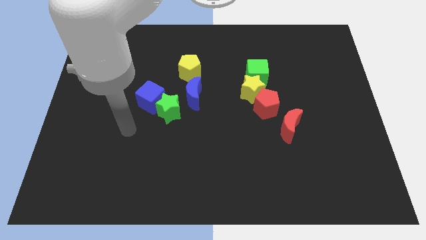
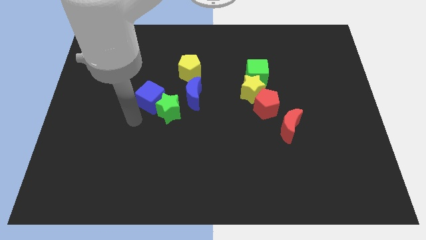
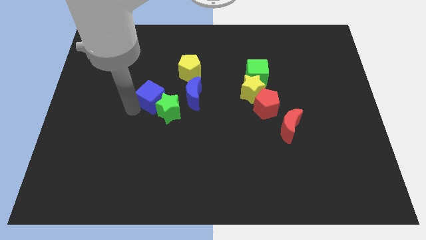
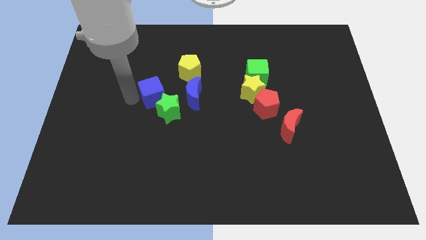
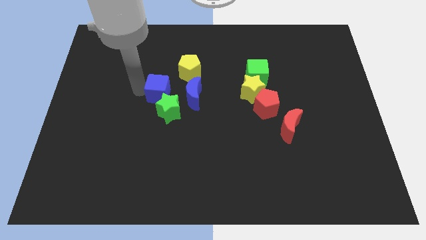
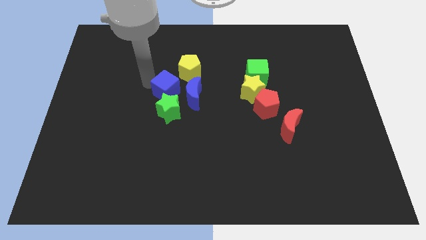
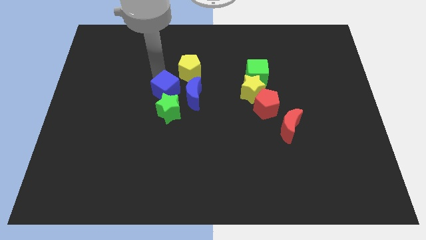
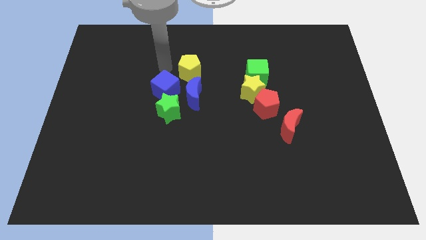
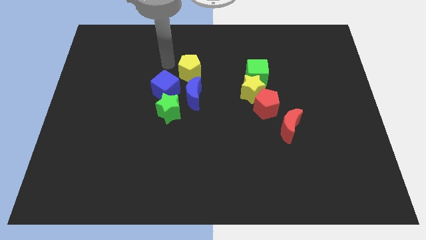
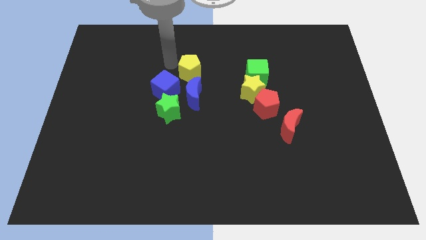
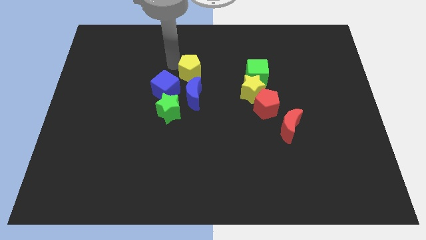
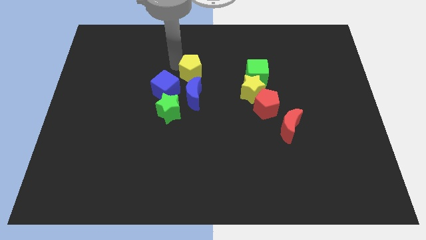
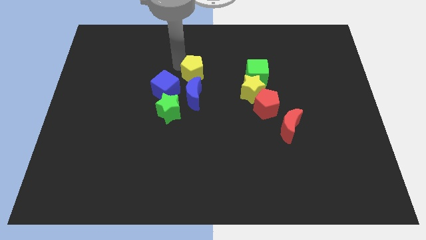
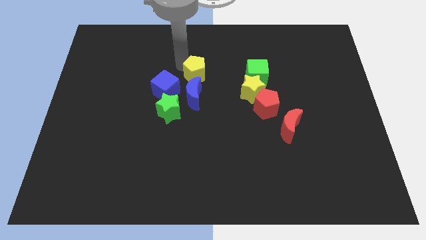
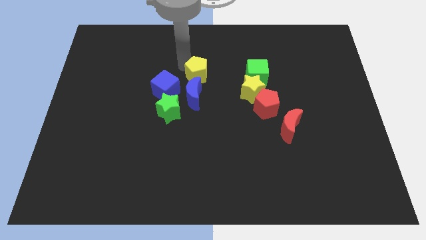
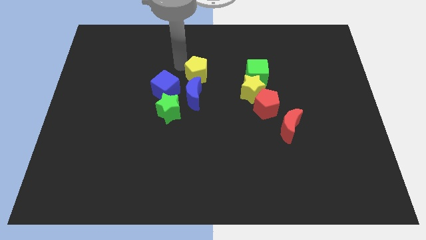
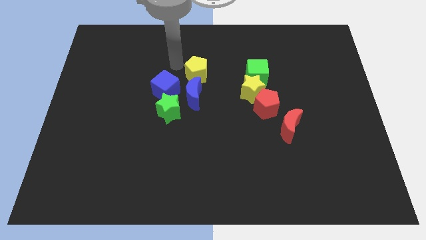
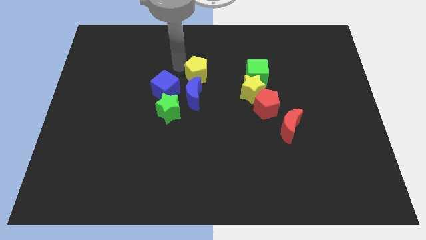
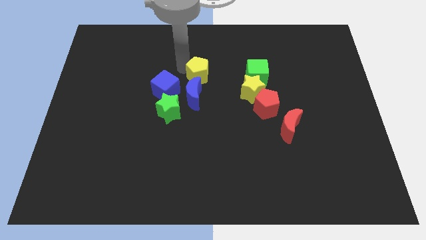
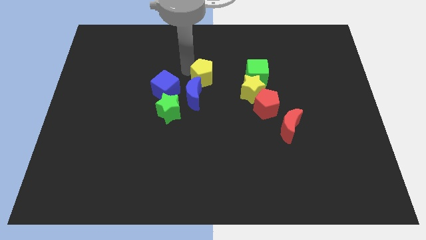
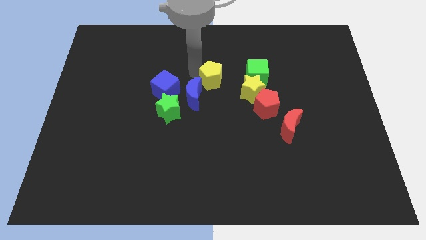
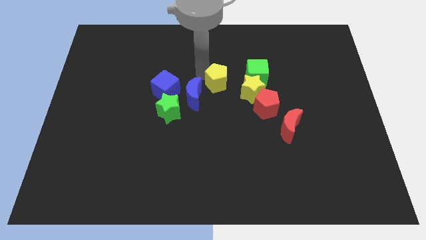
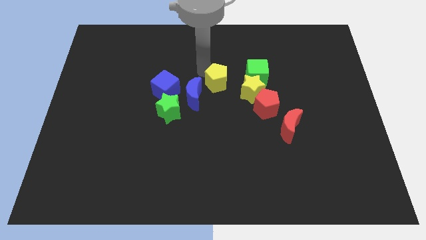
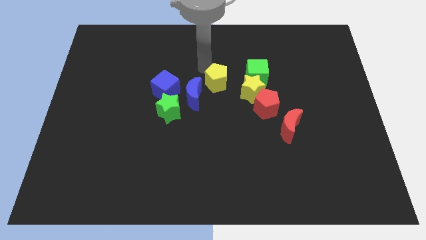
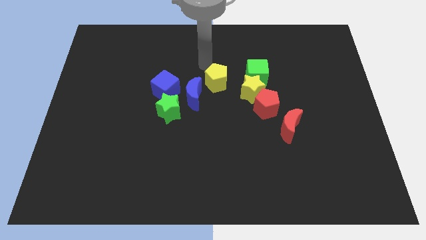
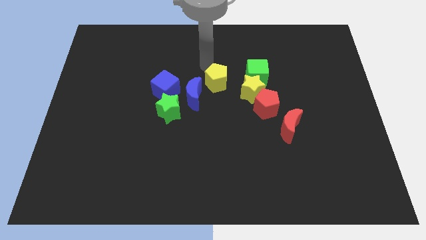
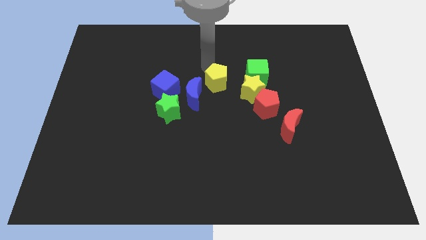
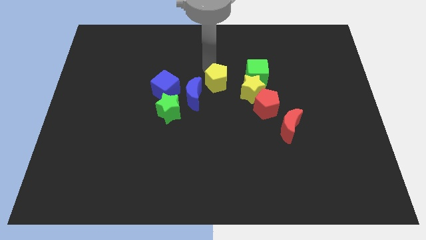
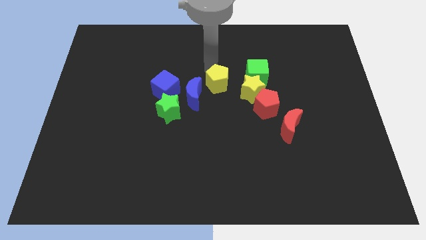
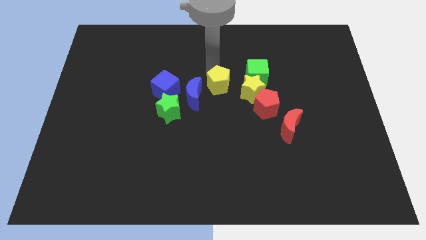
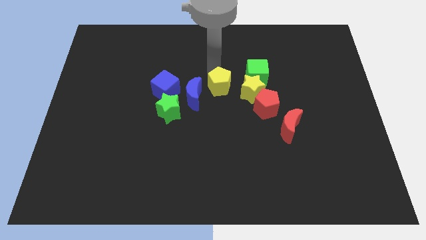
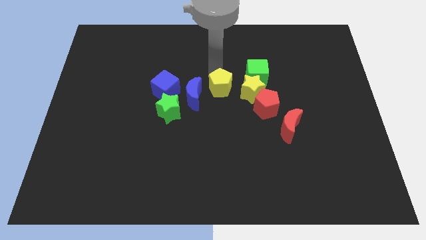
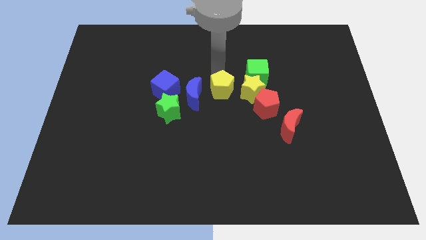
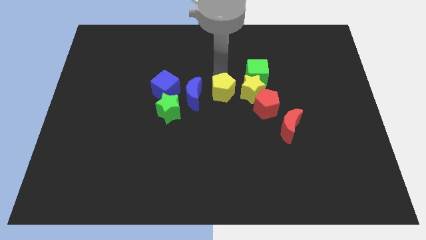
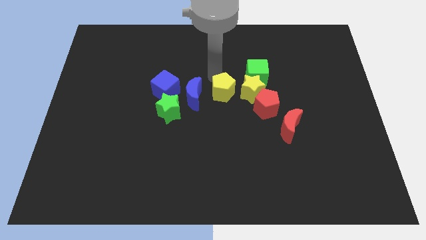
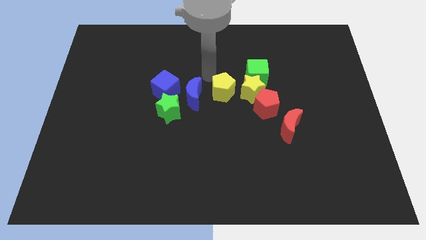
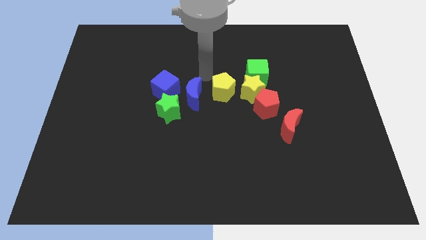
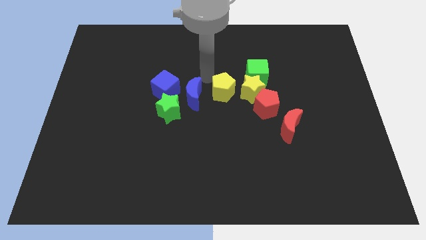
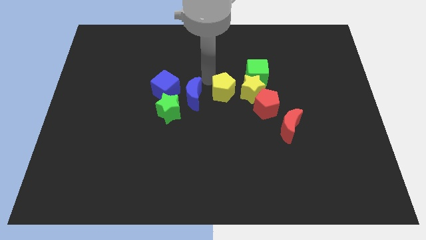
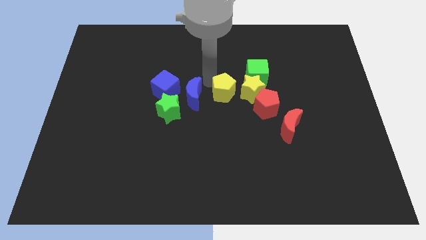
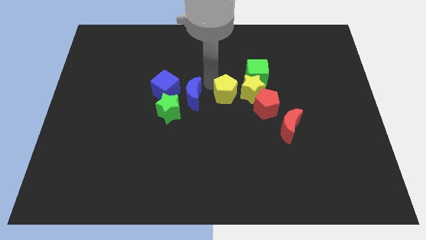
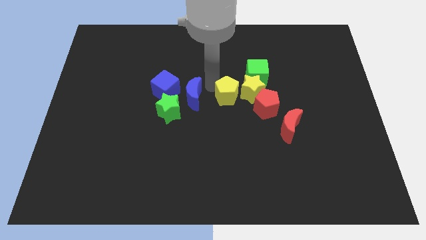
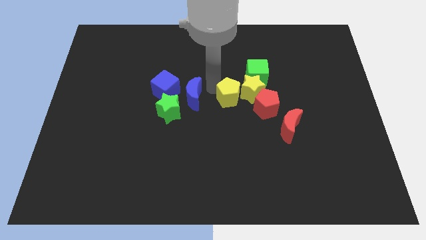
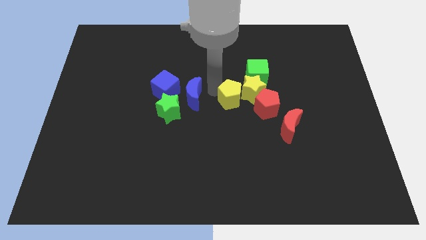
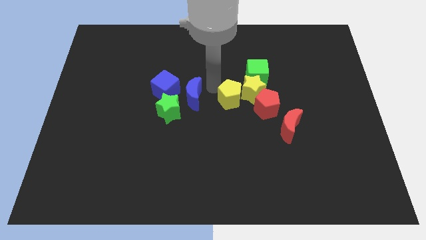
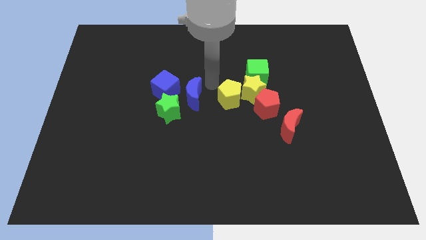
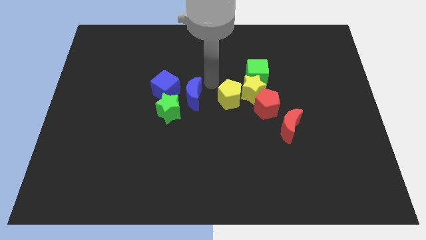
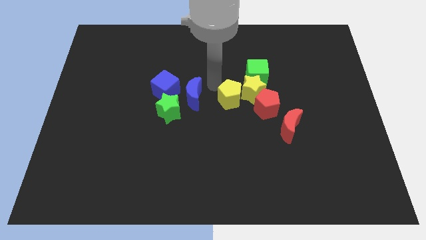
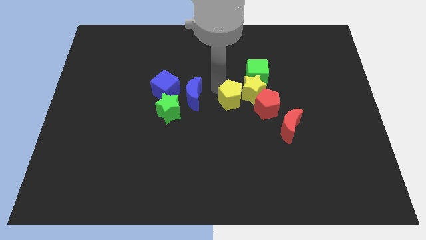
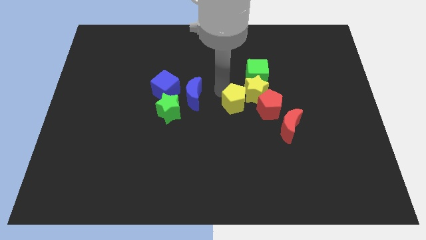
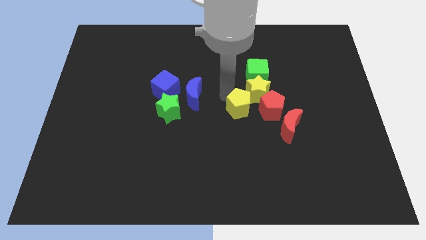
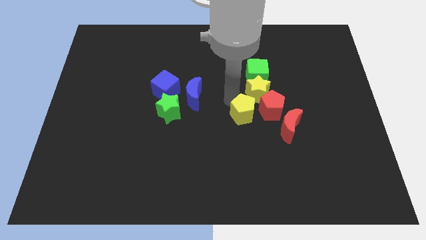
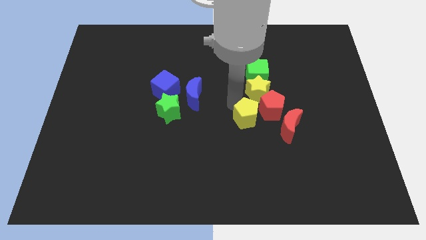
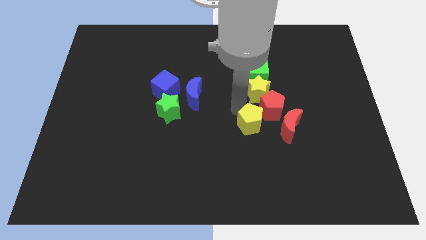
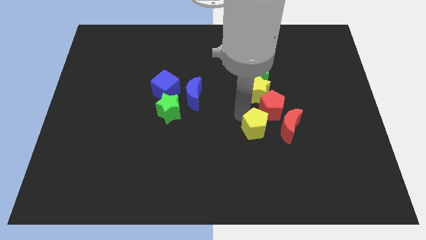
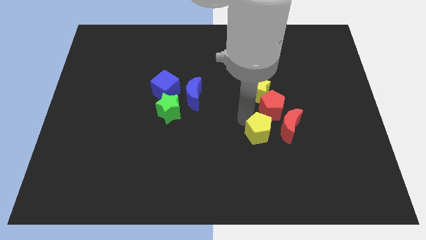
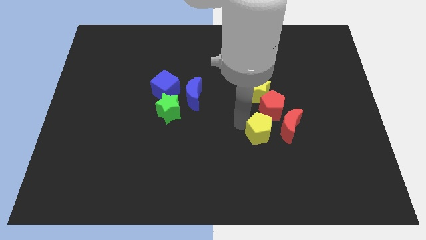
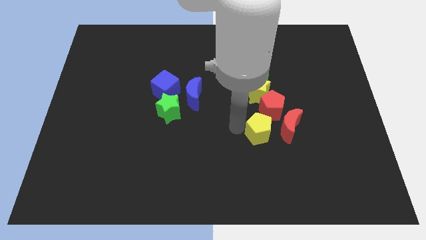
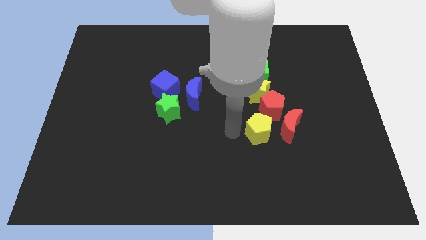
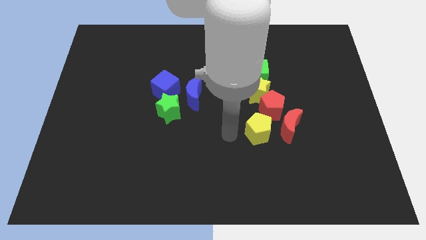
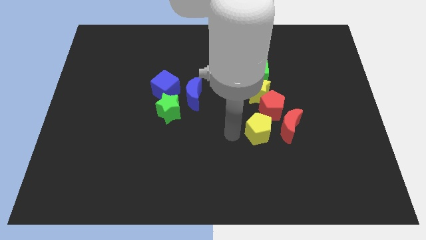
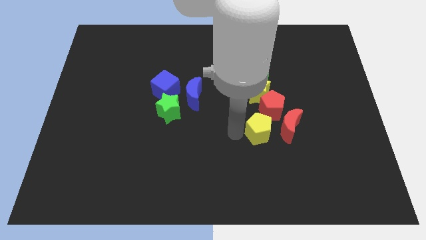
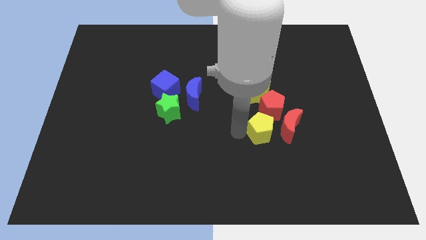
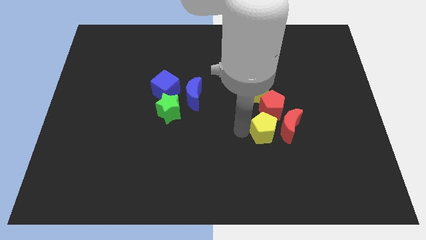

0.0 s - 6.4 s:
move the yellow pentagon close to the red moon

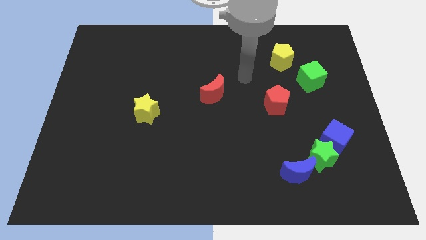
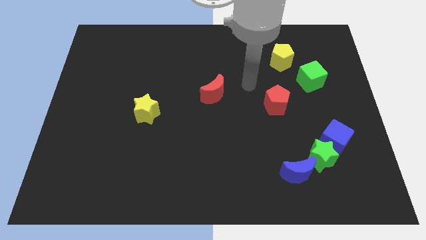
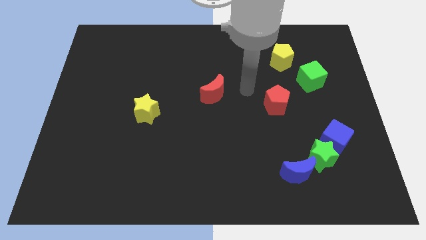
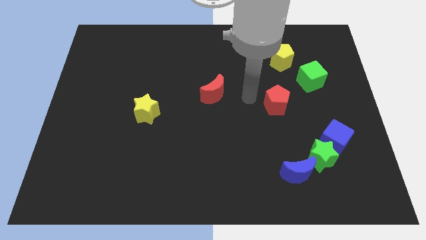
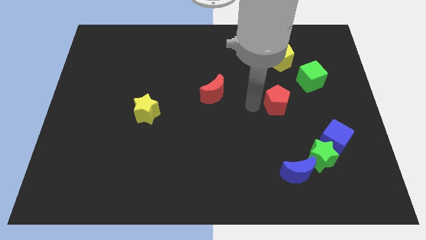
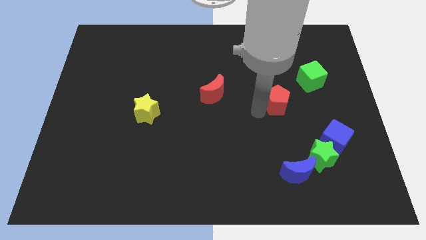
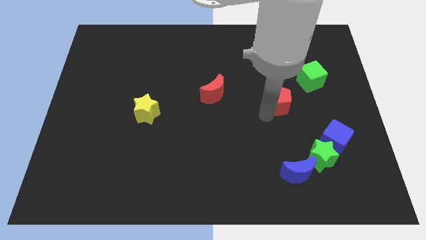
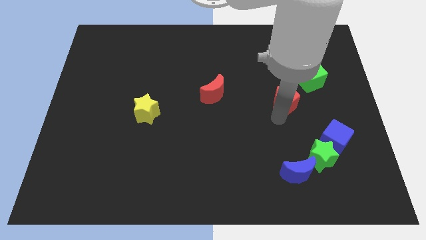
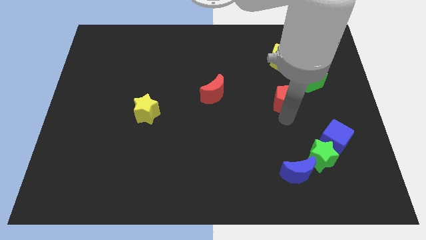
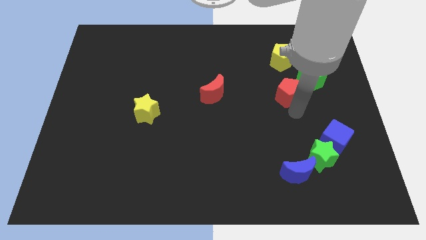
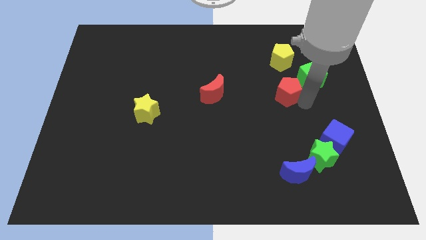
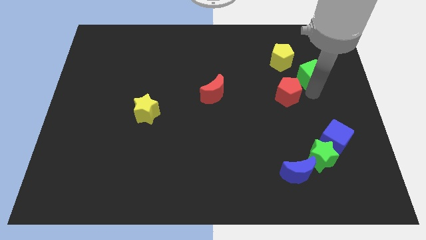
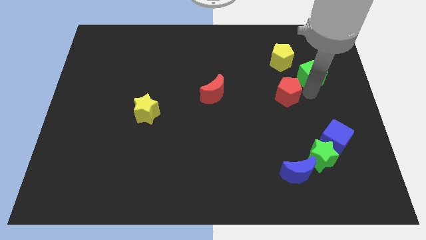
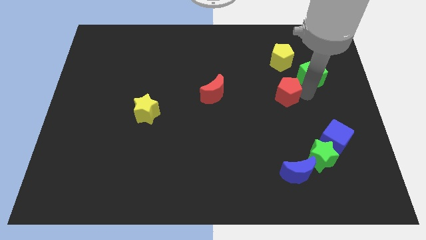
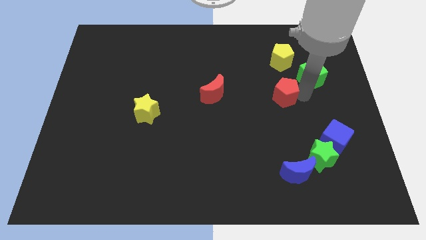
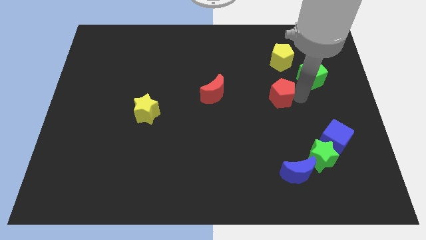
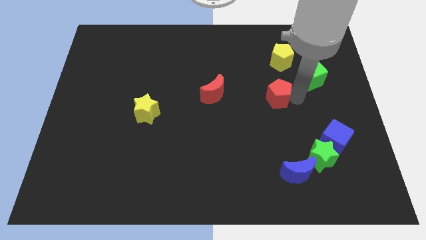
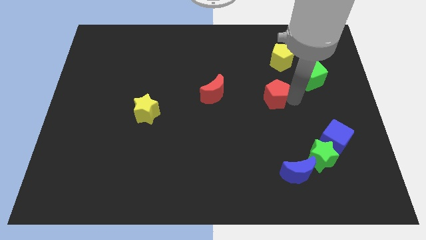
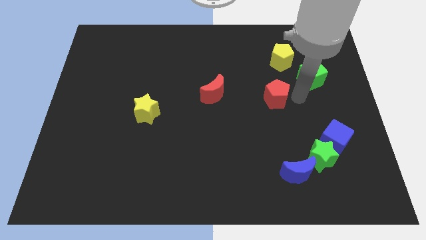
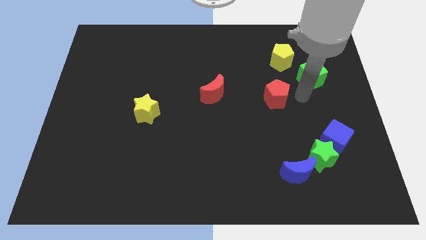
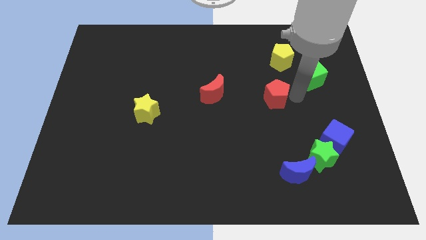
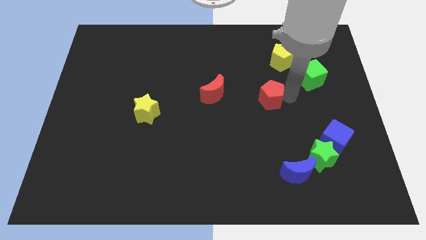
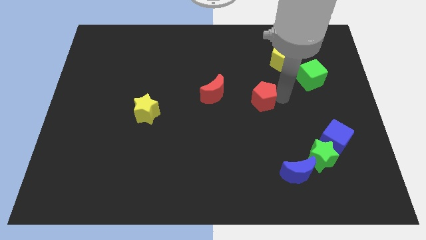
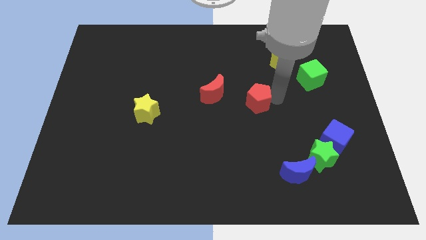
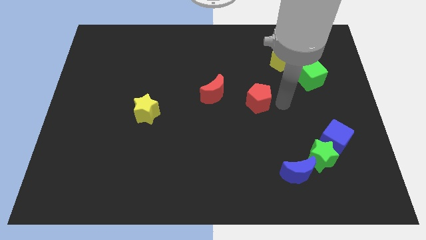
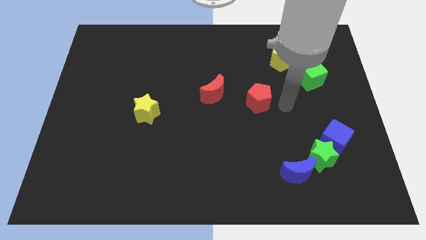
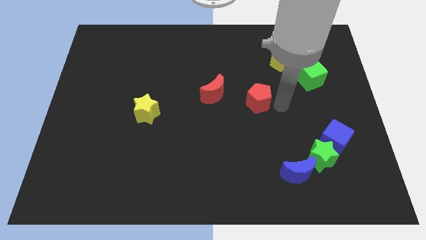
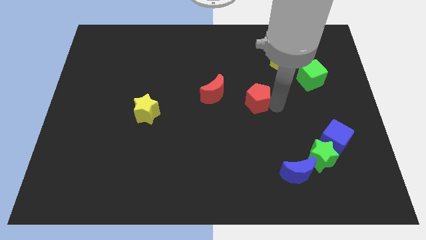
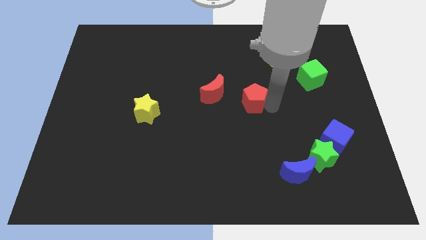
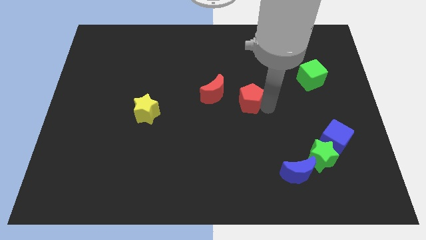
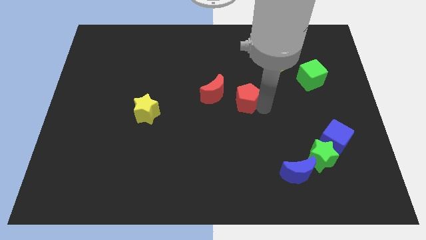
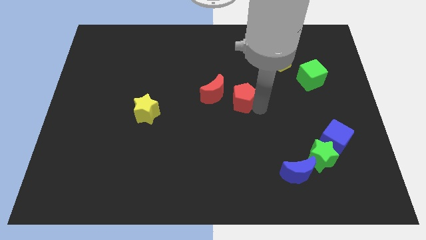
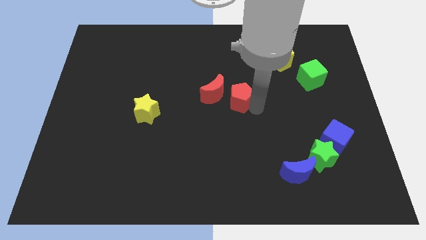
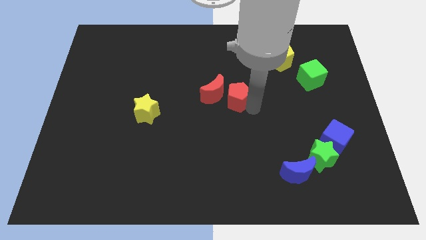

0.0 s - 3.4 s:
put the red pentagon to the red moon
